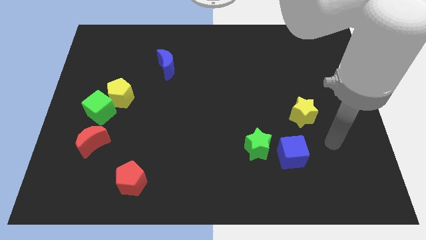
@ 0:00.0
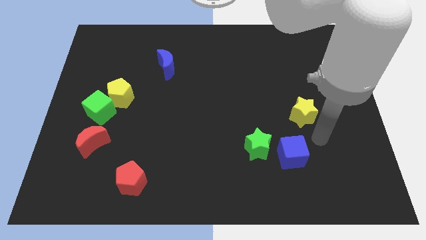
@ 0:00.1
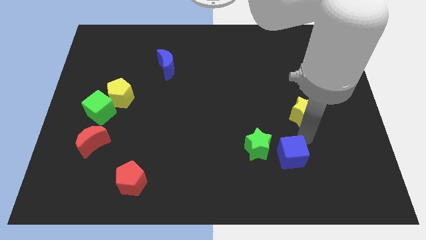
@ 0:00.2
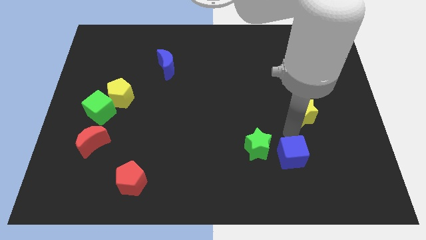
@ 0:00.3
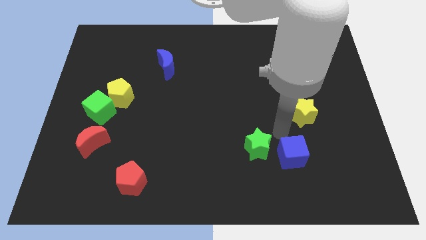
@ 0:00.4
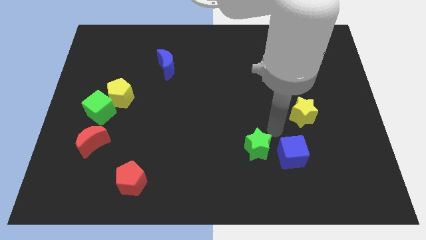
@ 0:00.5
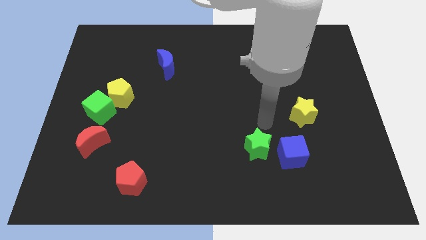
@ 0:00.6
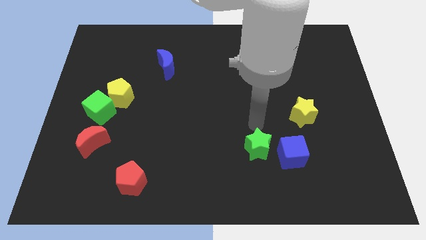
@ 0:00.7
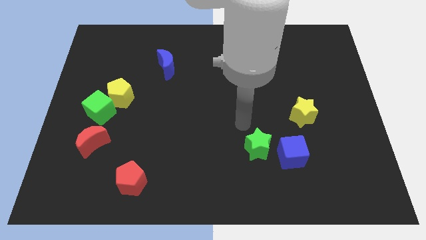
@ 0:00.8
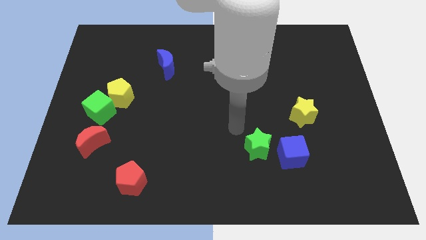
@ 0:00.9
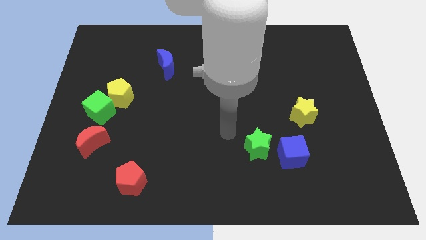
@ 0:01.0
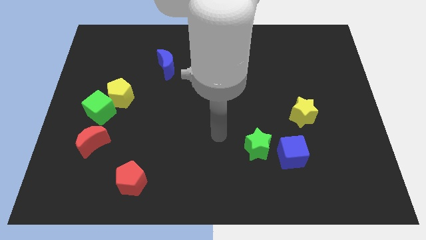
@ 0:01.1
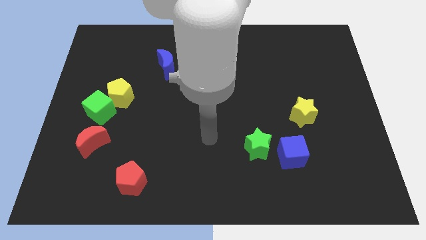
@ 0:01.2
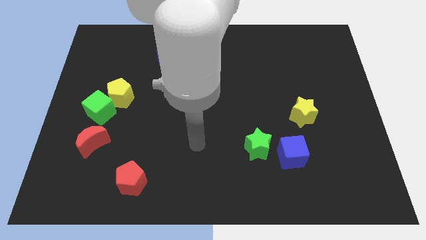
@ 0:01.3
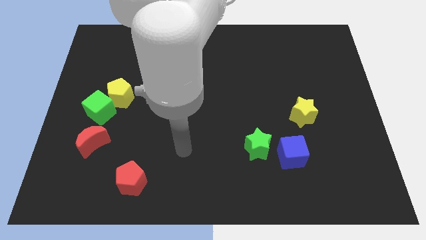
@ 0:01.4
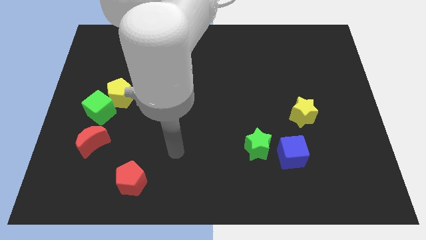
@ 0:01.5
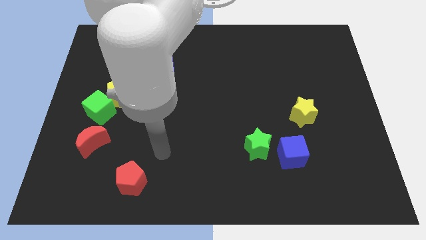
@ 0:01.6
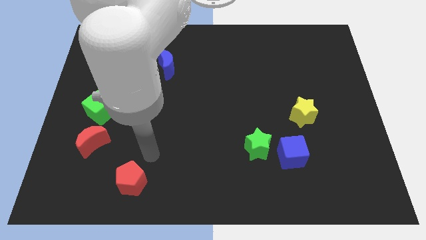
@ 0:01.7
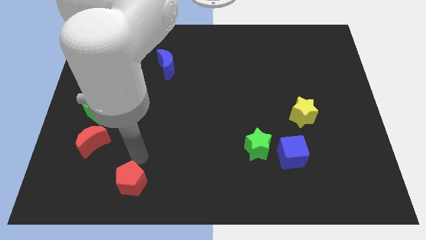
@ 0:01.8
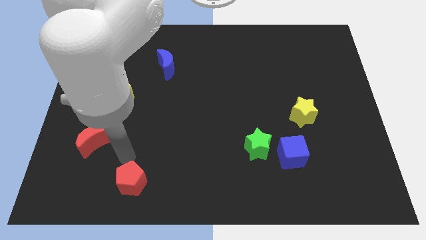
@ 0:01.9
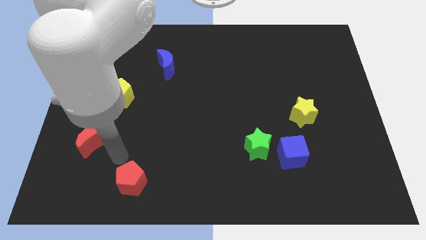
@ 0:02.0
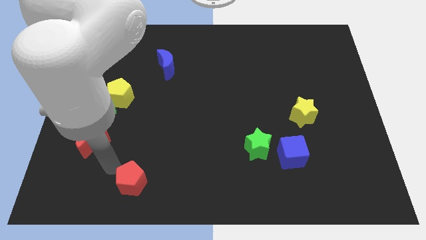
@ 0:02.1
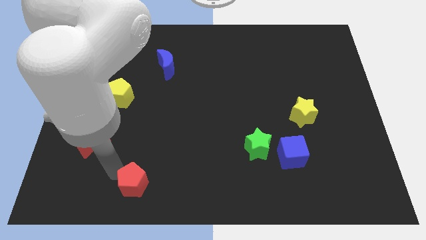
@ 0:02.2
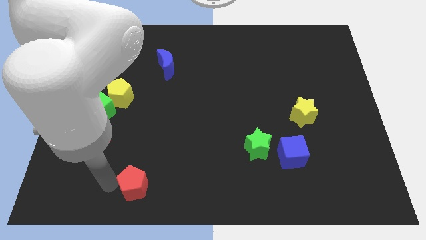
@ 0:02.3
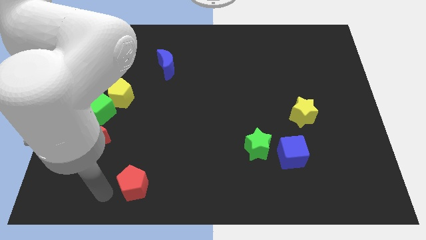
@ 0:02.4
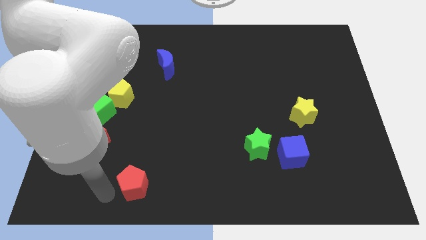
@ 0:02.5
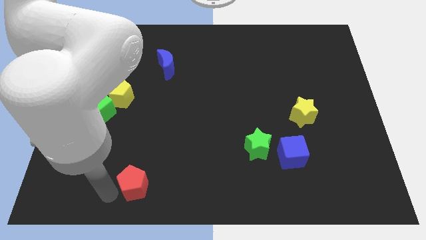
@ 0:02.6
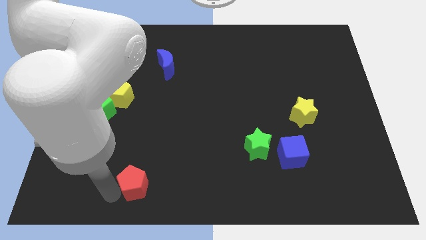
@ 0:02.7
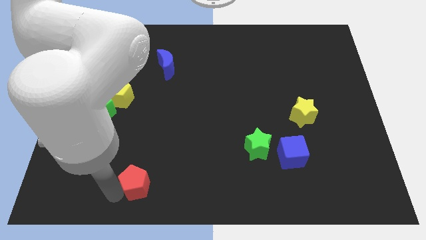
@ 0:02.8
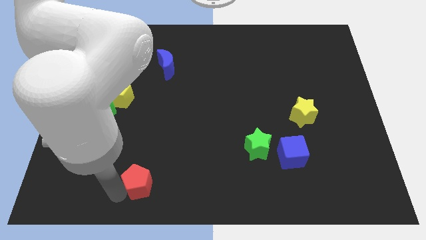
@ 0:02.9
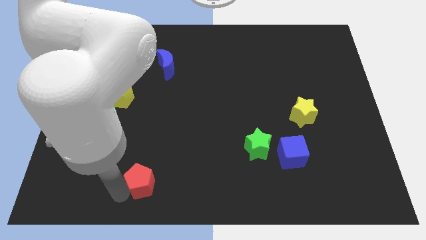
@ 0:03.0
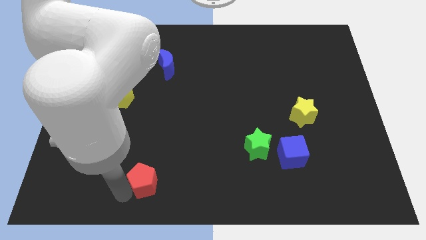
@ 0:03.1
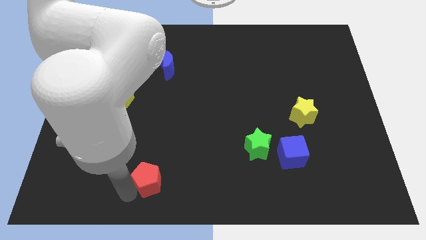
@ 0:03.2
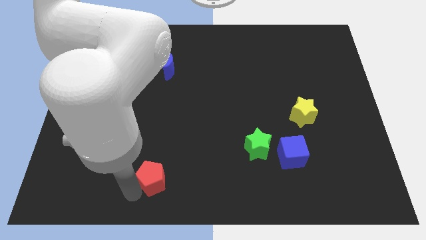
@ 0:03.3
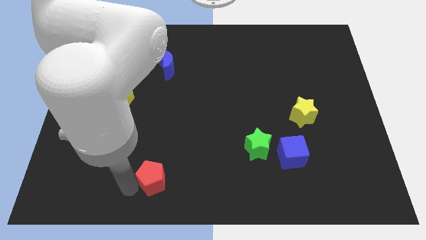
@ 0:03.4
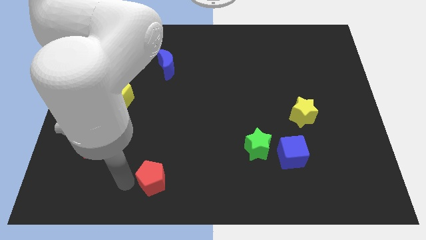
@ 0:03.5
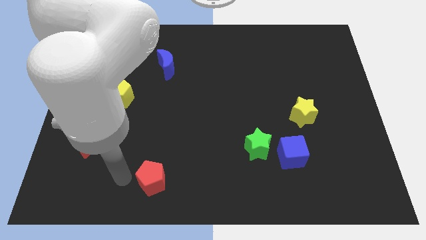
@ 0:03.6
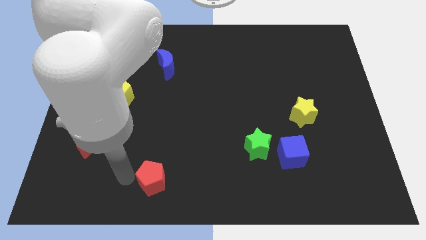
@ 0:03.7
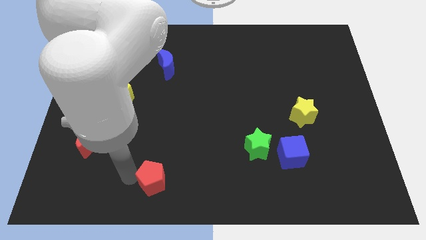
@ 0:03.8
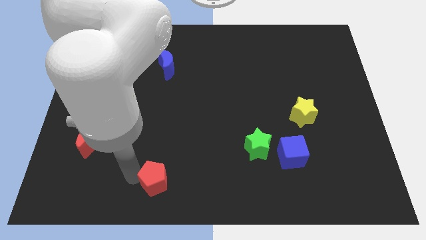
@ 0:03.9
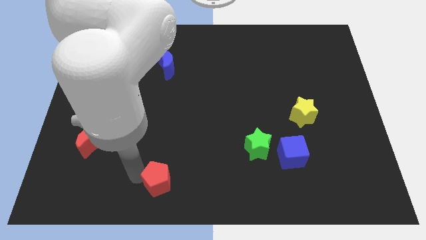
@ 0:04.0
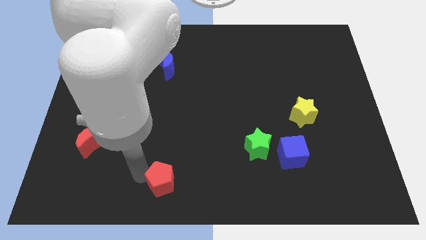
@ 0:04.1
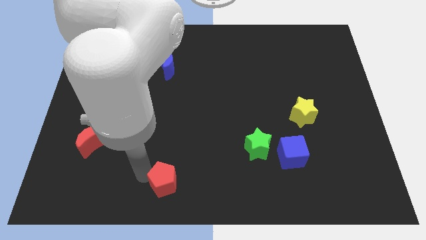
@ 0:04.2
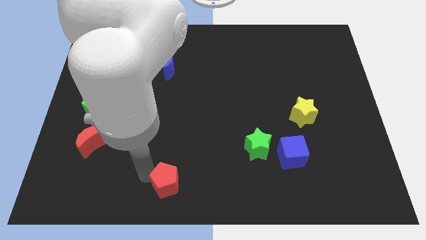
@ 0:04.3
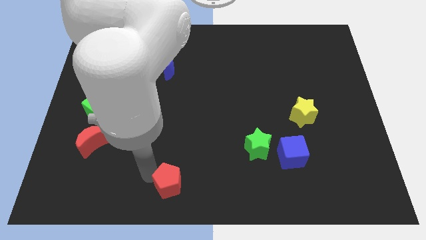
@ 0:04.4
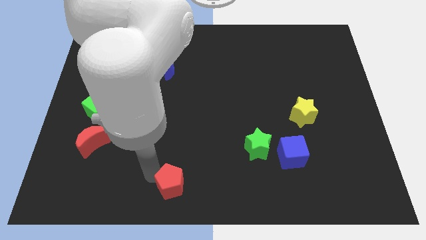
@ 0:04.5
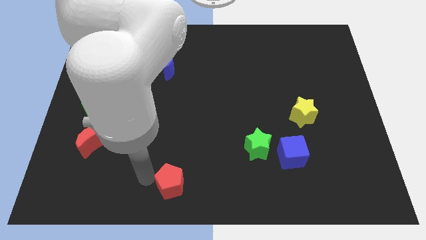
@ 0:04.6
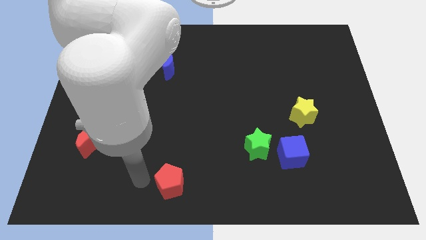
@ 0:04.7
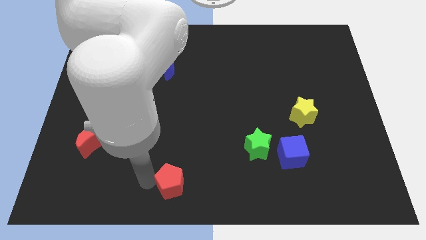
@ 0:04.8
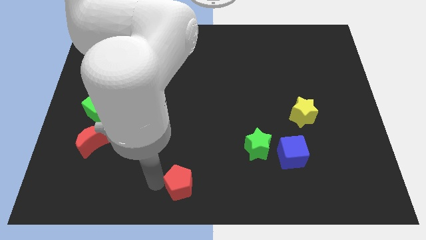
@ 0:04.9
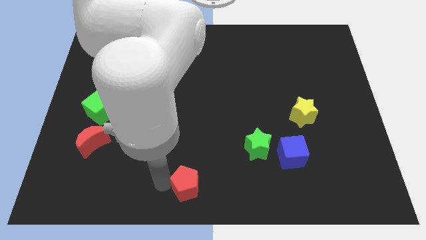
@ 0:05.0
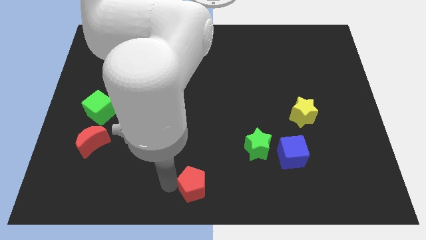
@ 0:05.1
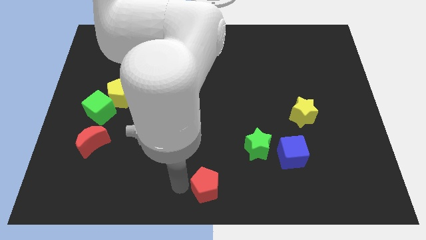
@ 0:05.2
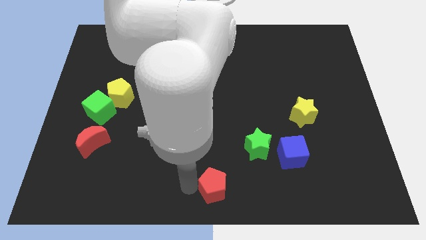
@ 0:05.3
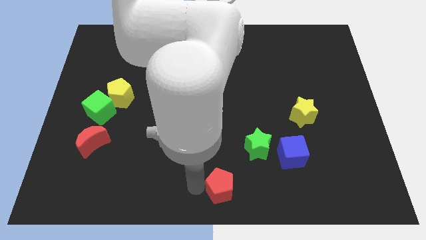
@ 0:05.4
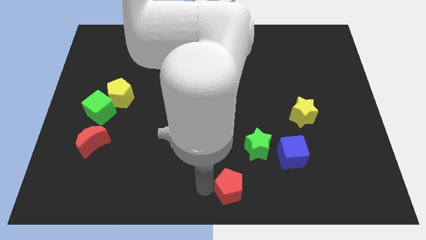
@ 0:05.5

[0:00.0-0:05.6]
move the red pentagon to the right

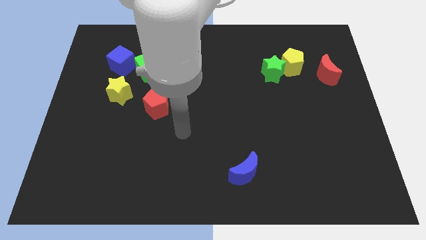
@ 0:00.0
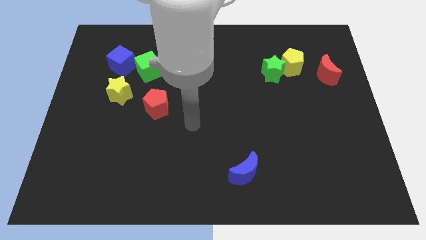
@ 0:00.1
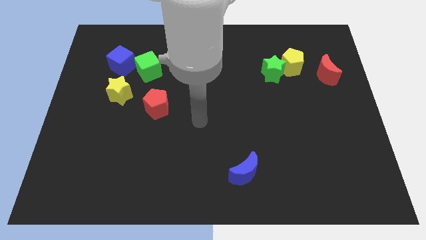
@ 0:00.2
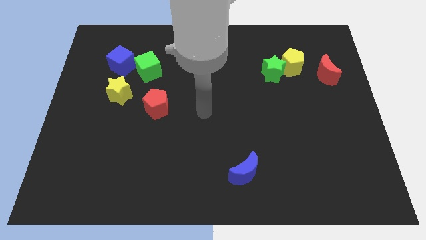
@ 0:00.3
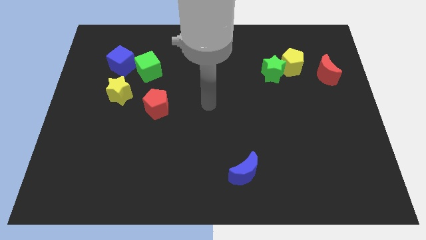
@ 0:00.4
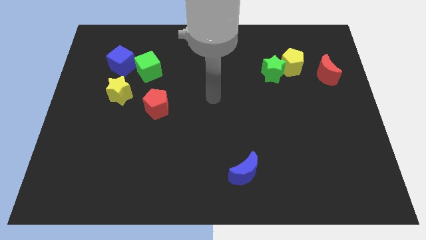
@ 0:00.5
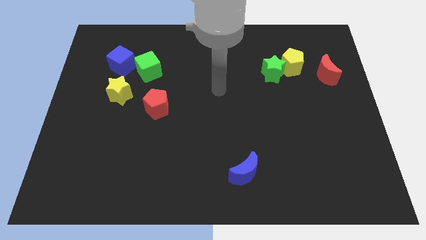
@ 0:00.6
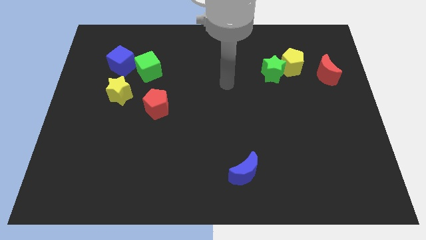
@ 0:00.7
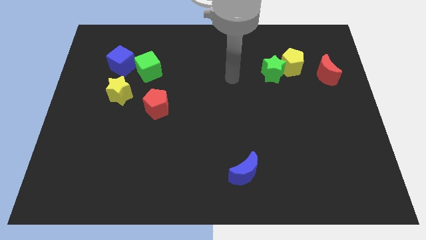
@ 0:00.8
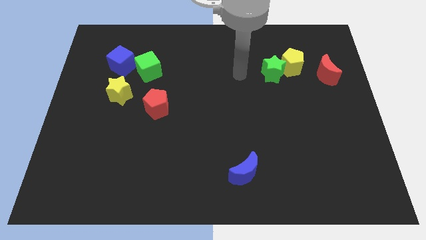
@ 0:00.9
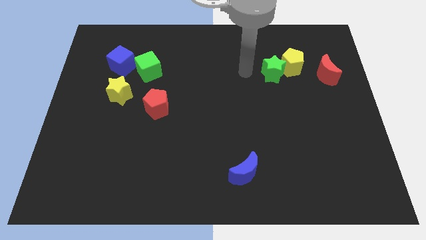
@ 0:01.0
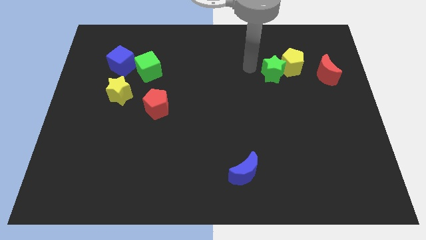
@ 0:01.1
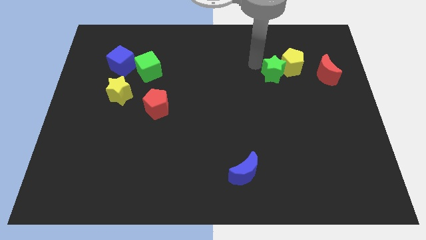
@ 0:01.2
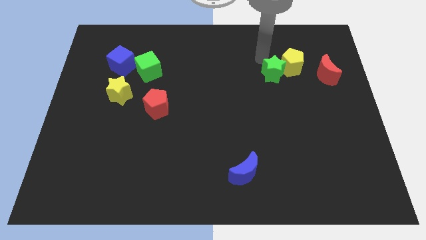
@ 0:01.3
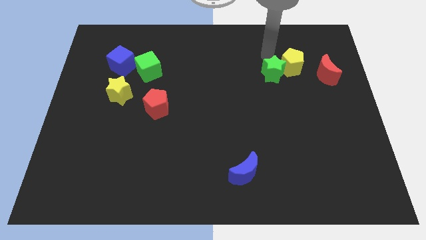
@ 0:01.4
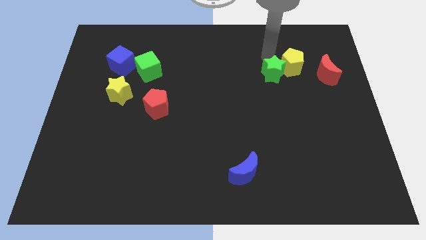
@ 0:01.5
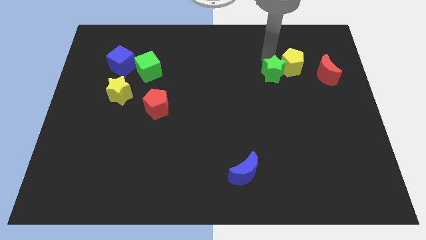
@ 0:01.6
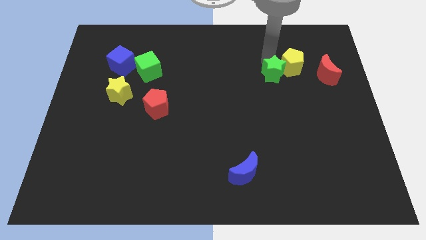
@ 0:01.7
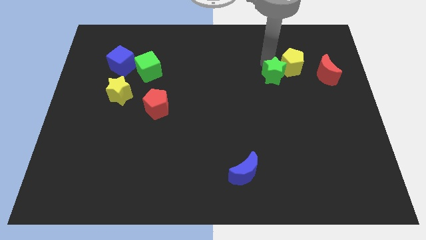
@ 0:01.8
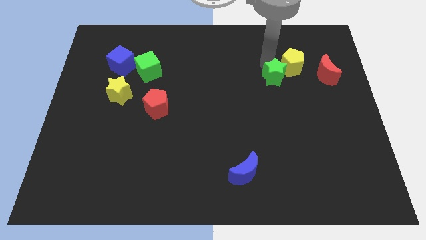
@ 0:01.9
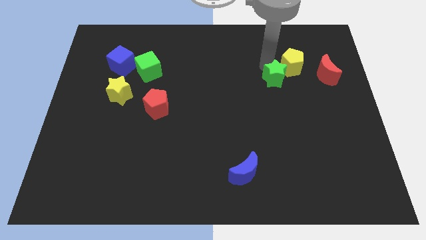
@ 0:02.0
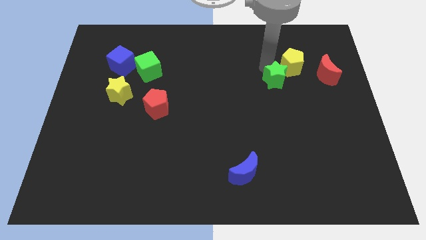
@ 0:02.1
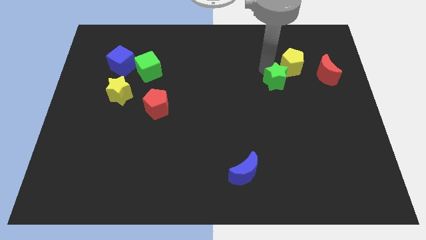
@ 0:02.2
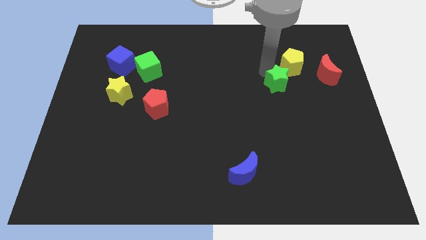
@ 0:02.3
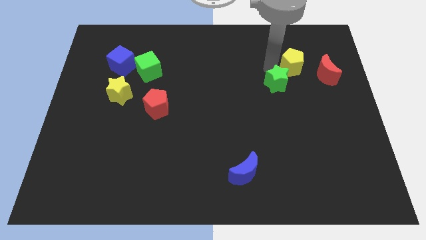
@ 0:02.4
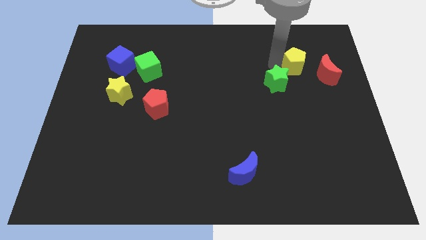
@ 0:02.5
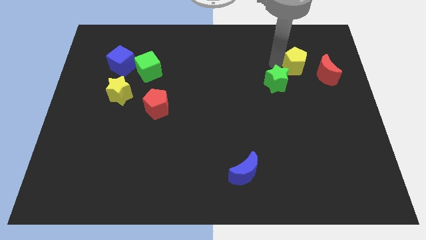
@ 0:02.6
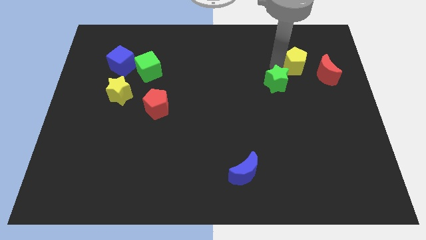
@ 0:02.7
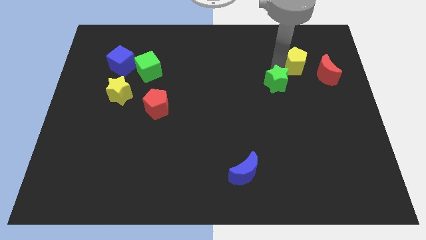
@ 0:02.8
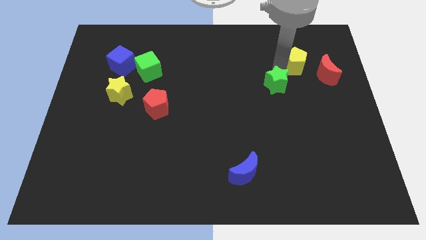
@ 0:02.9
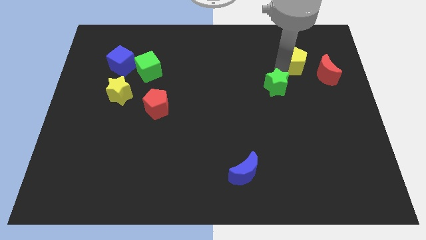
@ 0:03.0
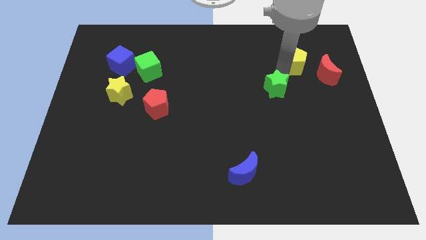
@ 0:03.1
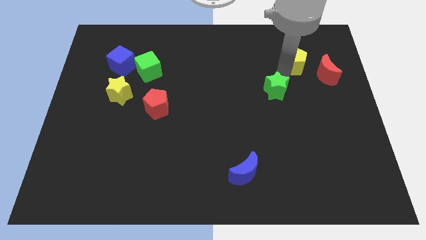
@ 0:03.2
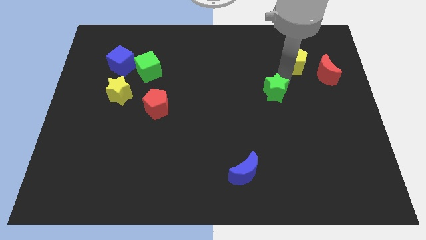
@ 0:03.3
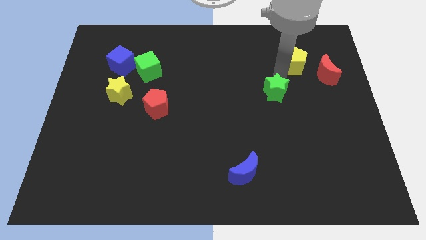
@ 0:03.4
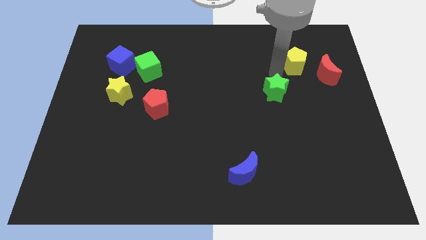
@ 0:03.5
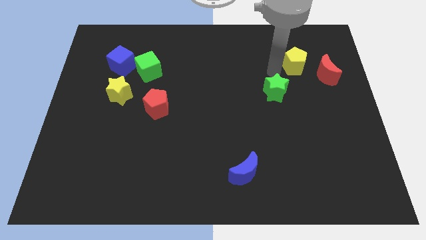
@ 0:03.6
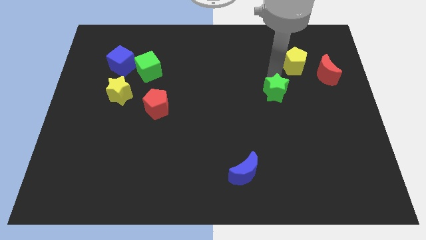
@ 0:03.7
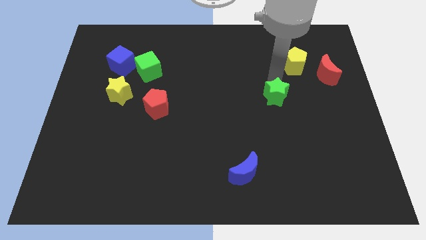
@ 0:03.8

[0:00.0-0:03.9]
push the green star a little down
